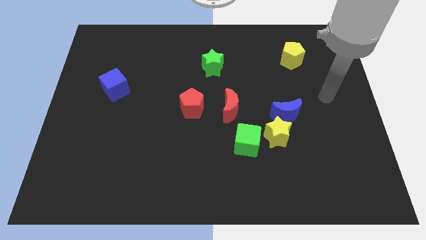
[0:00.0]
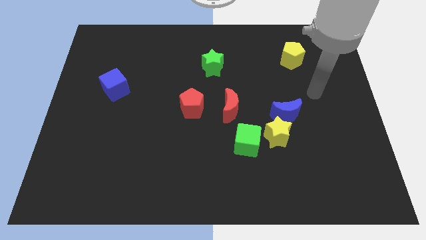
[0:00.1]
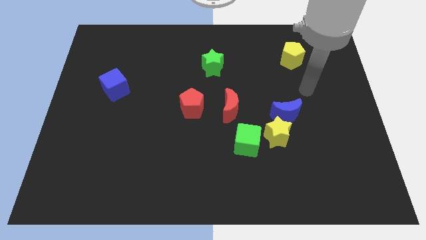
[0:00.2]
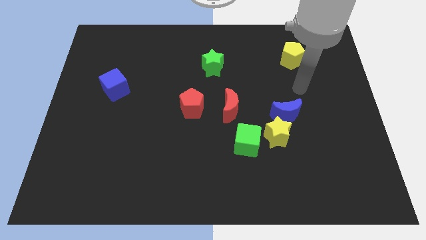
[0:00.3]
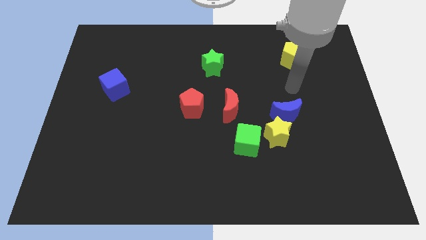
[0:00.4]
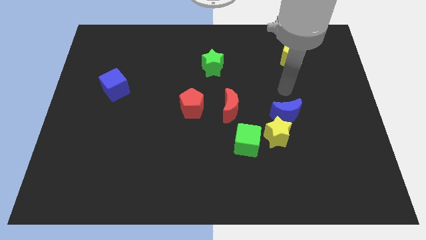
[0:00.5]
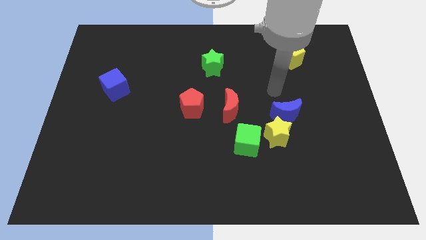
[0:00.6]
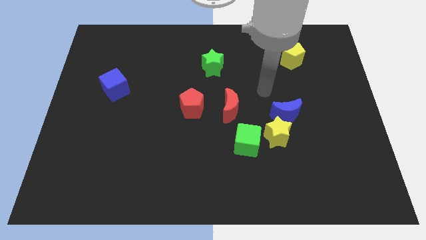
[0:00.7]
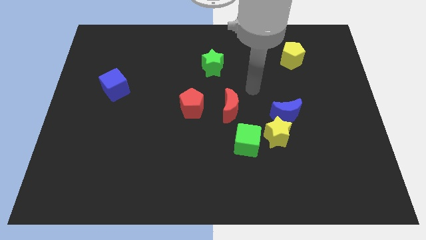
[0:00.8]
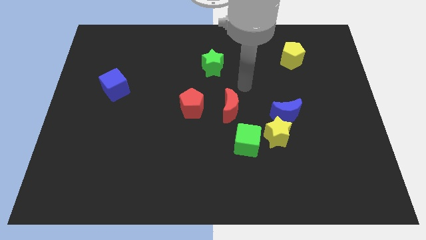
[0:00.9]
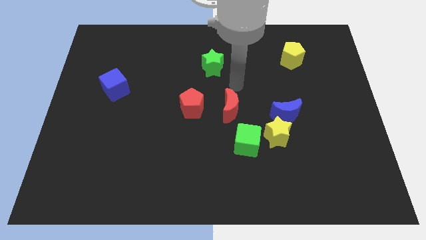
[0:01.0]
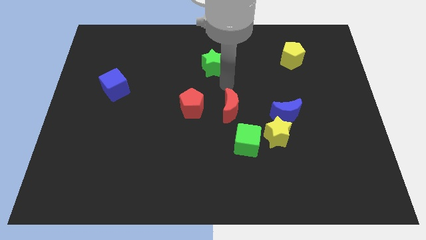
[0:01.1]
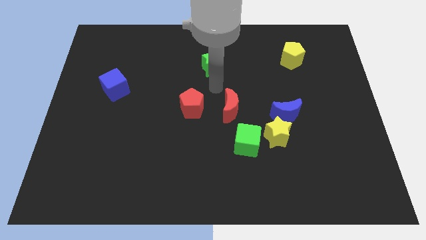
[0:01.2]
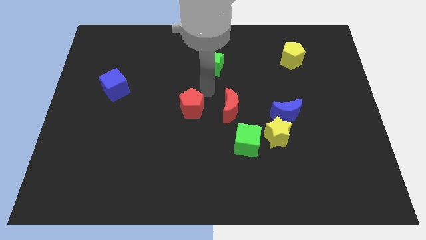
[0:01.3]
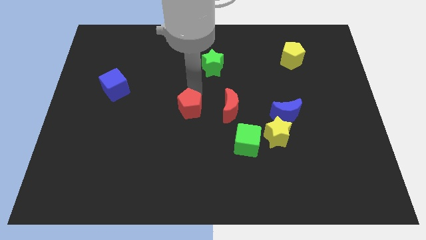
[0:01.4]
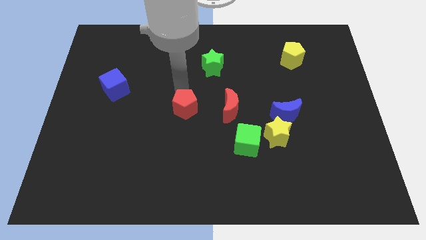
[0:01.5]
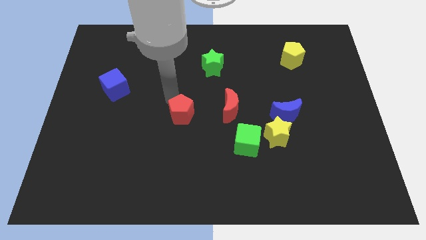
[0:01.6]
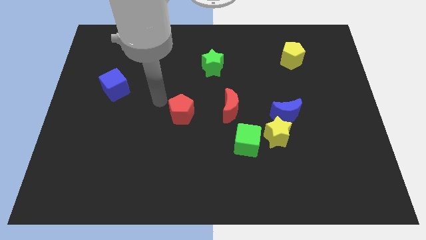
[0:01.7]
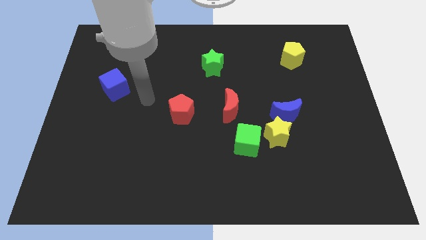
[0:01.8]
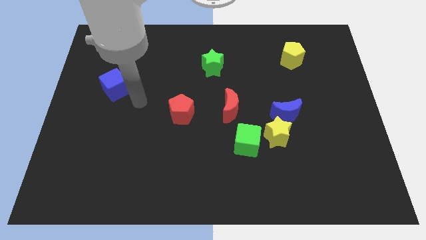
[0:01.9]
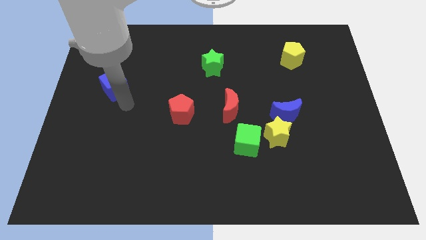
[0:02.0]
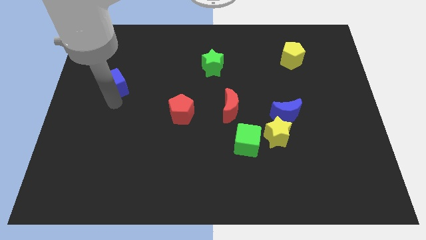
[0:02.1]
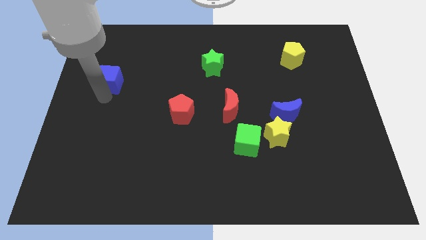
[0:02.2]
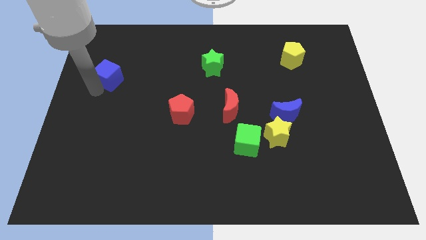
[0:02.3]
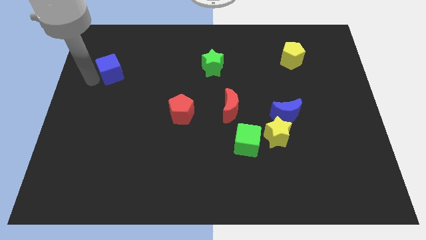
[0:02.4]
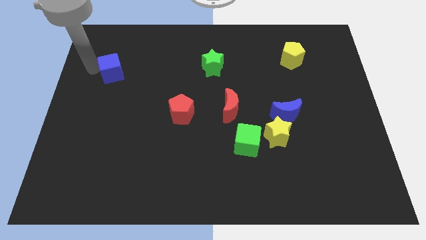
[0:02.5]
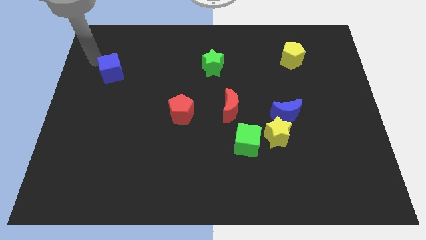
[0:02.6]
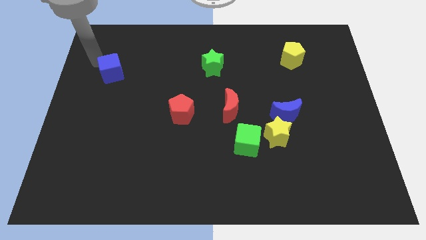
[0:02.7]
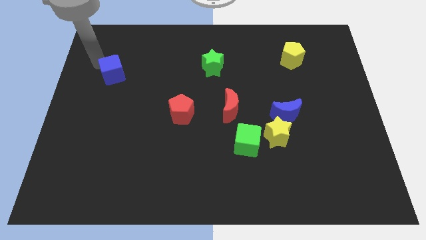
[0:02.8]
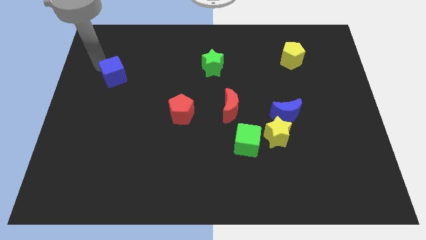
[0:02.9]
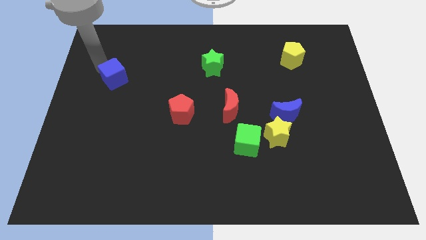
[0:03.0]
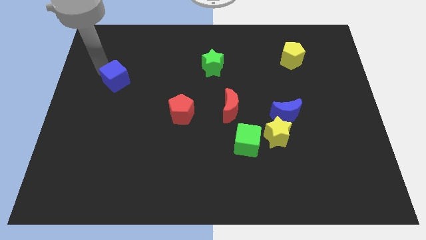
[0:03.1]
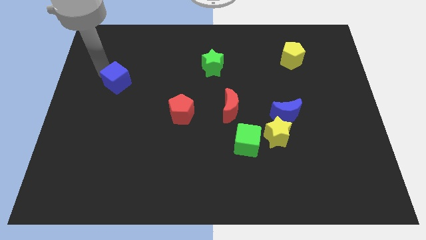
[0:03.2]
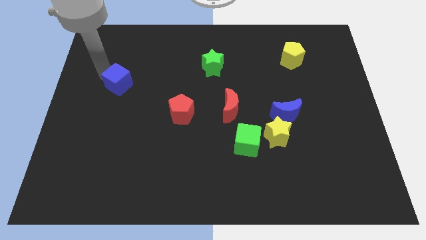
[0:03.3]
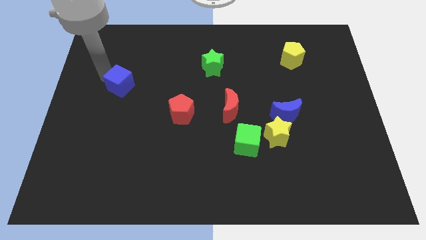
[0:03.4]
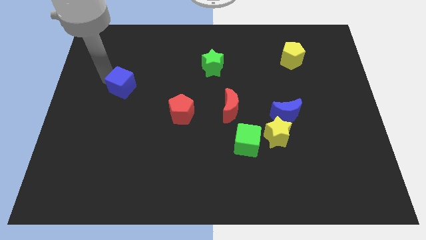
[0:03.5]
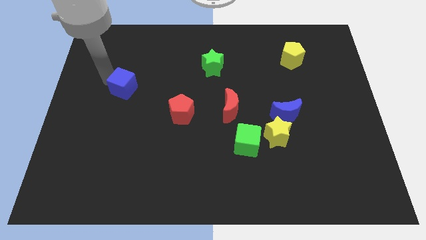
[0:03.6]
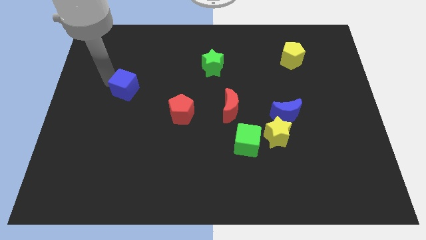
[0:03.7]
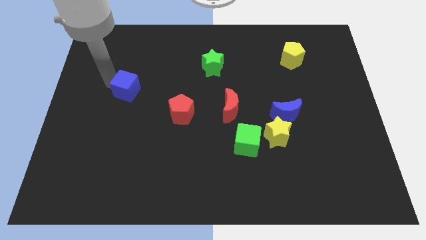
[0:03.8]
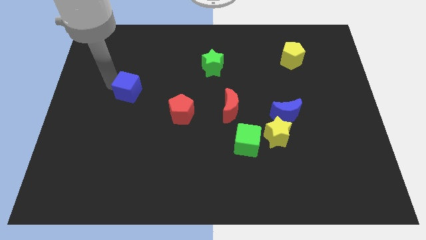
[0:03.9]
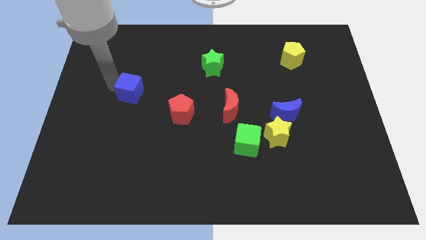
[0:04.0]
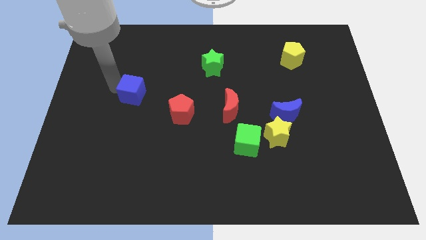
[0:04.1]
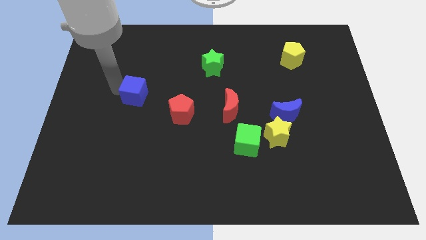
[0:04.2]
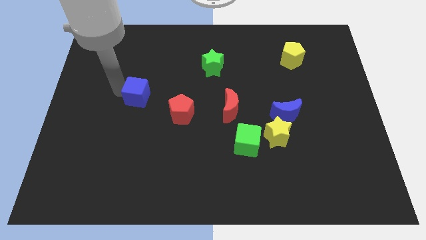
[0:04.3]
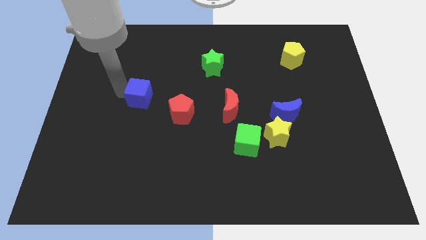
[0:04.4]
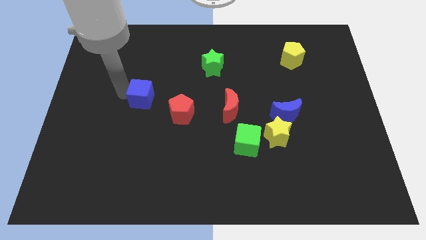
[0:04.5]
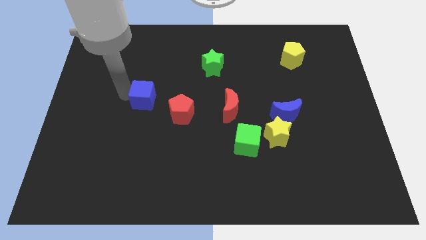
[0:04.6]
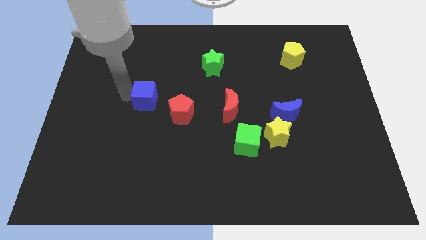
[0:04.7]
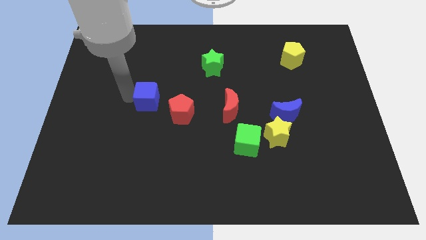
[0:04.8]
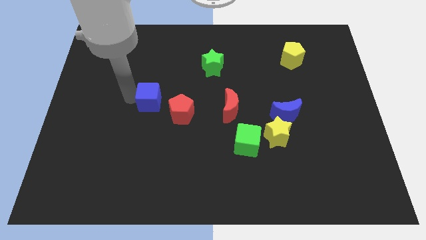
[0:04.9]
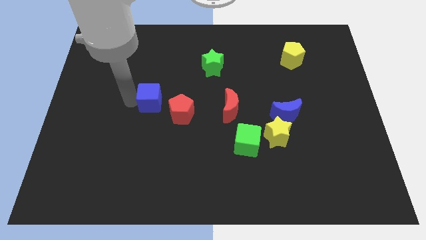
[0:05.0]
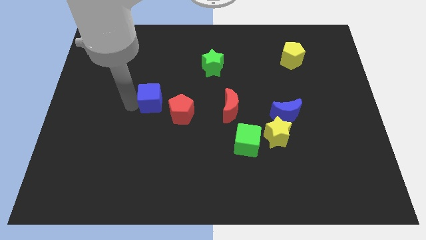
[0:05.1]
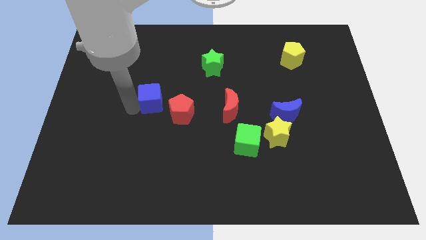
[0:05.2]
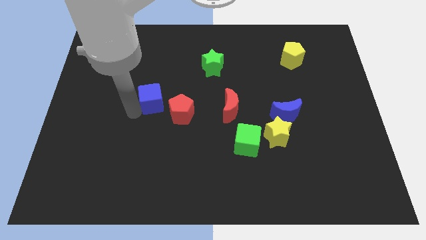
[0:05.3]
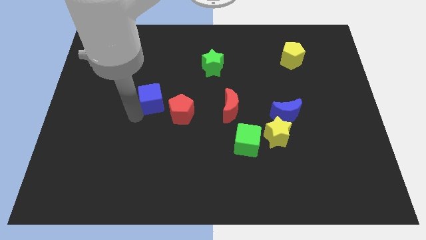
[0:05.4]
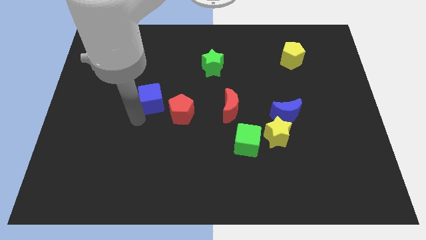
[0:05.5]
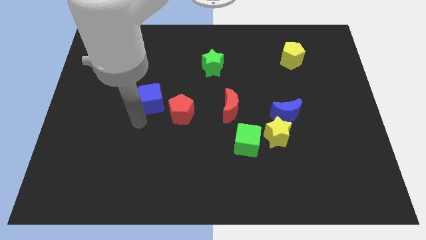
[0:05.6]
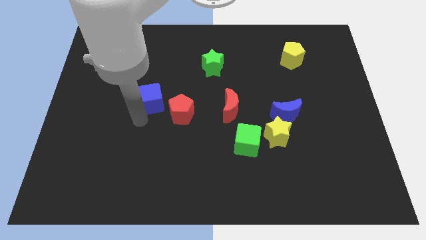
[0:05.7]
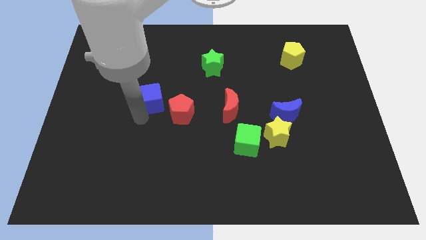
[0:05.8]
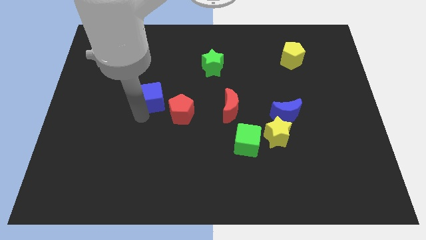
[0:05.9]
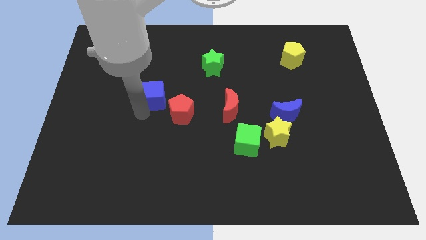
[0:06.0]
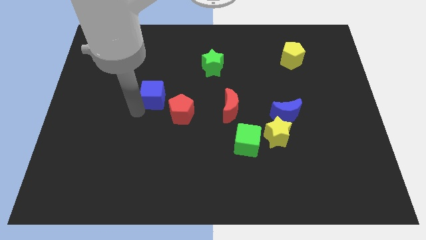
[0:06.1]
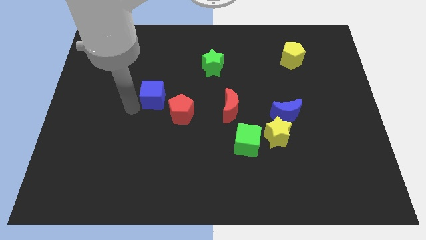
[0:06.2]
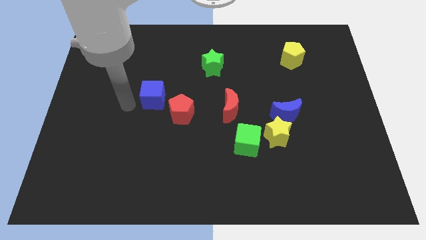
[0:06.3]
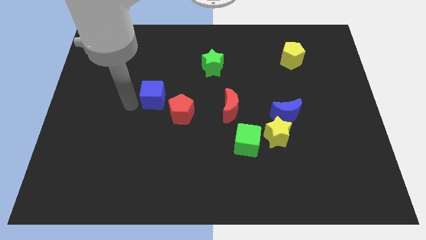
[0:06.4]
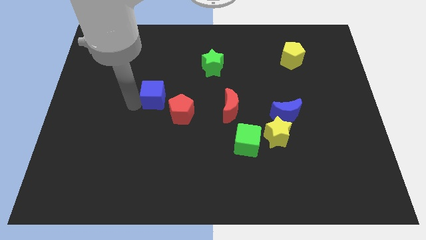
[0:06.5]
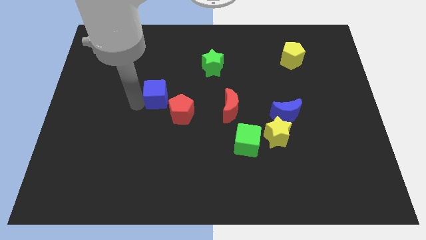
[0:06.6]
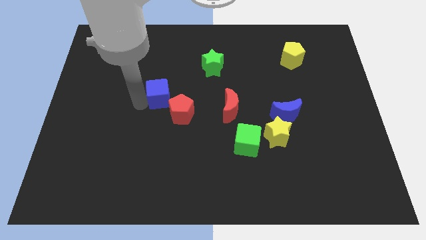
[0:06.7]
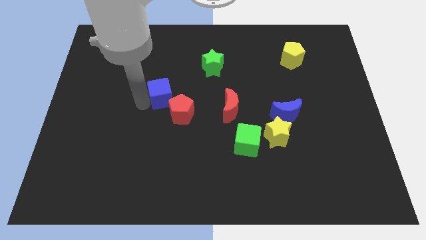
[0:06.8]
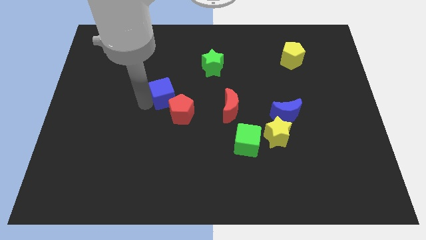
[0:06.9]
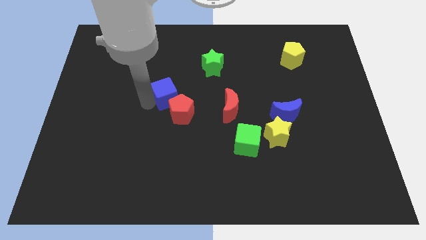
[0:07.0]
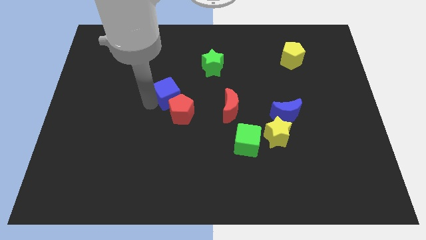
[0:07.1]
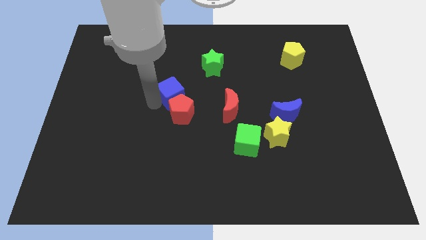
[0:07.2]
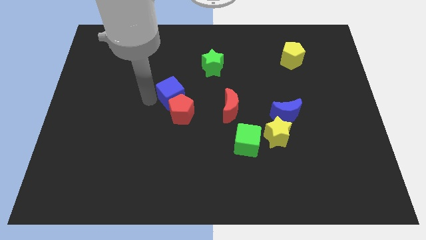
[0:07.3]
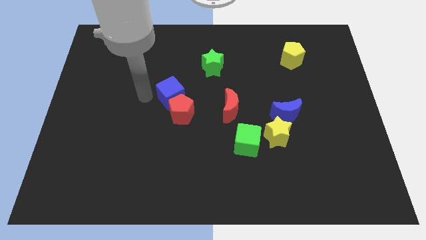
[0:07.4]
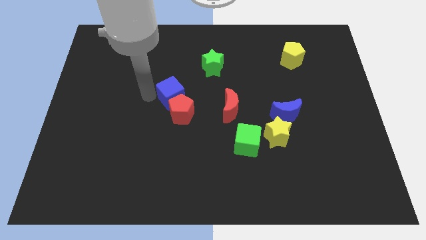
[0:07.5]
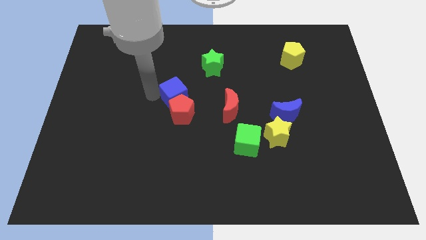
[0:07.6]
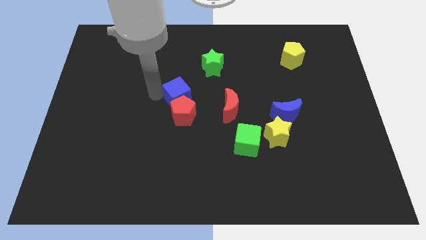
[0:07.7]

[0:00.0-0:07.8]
put the blue cube diagonally up and to the right of the red pentagon
